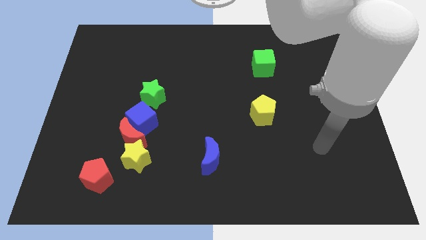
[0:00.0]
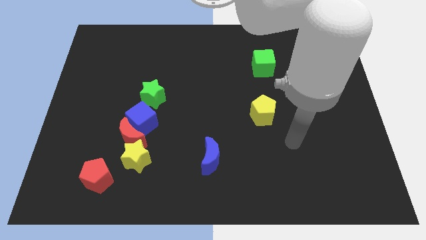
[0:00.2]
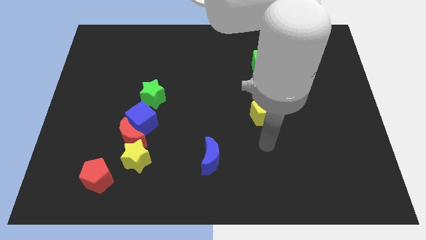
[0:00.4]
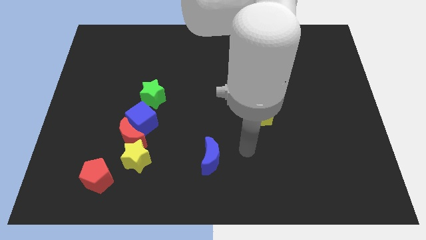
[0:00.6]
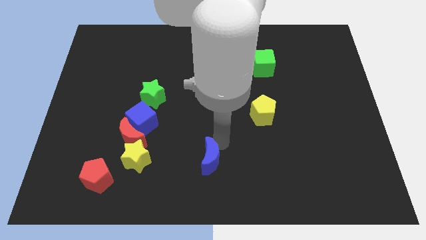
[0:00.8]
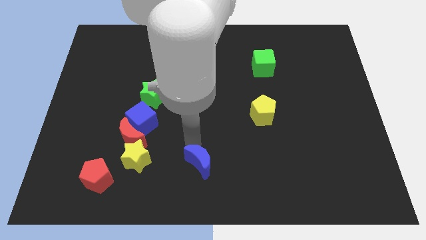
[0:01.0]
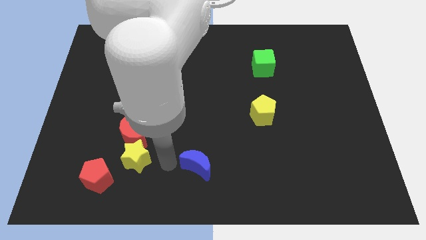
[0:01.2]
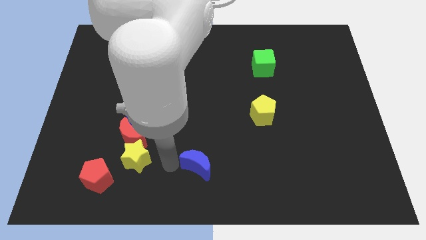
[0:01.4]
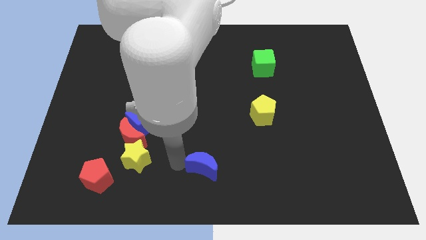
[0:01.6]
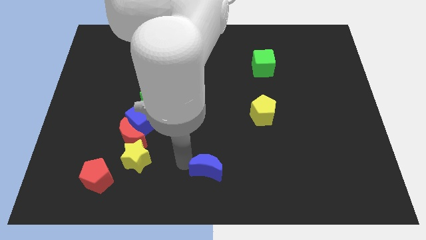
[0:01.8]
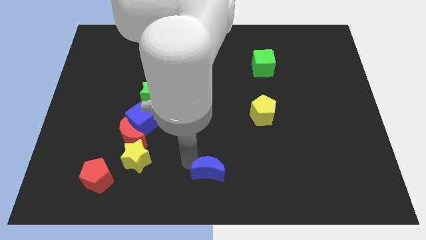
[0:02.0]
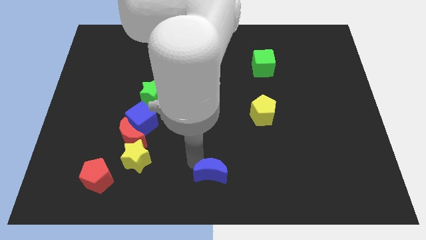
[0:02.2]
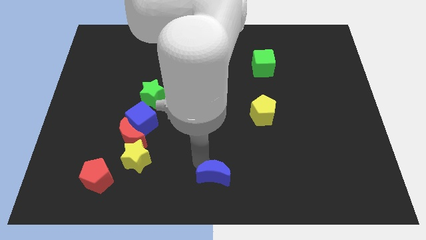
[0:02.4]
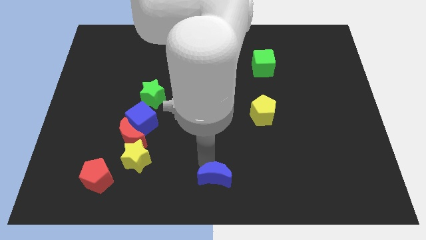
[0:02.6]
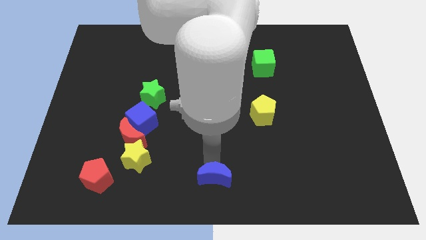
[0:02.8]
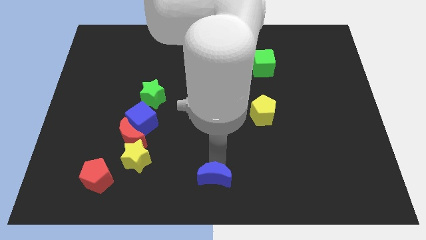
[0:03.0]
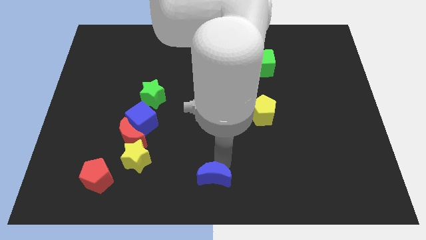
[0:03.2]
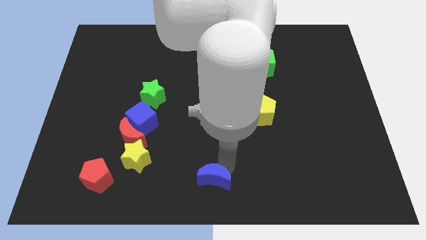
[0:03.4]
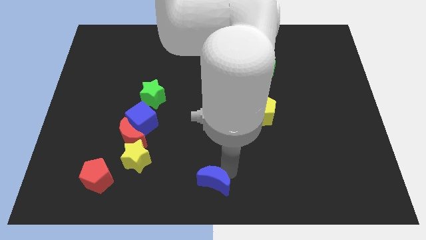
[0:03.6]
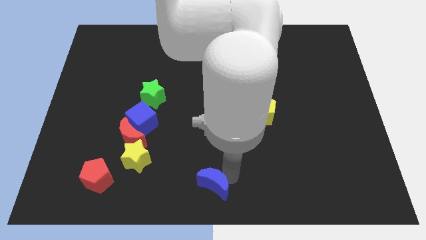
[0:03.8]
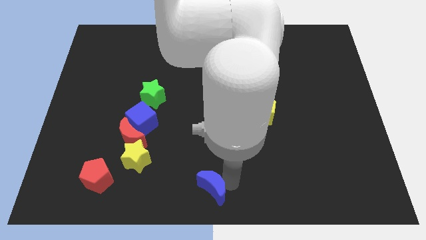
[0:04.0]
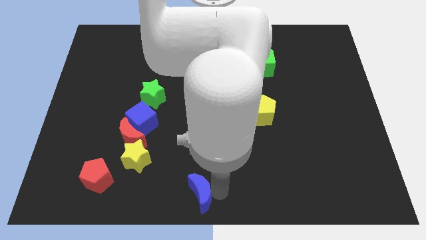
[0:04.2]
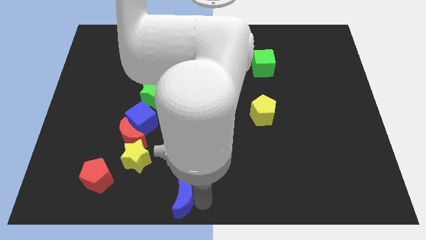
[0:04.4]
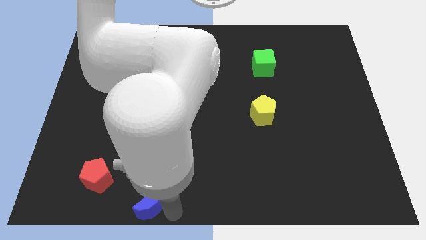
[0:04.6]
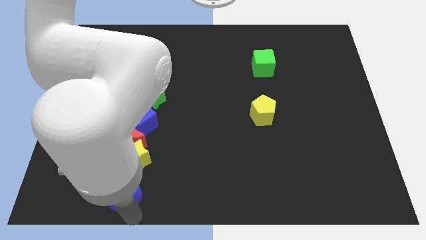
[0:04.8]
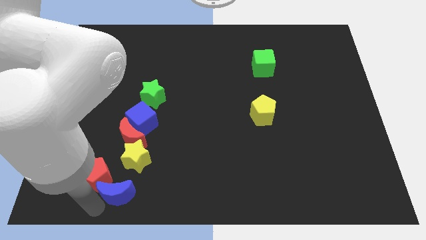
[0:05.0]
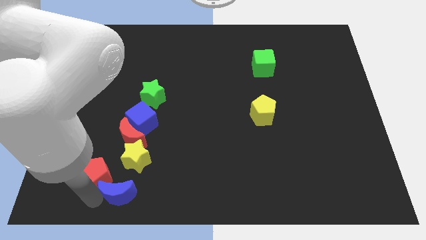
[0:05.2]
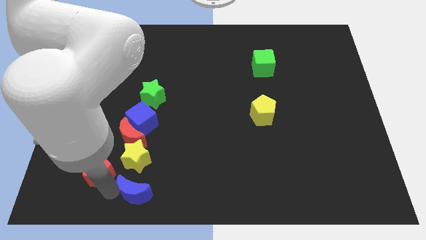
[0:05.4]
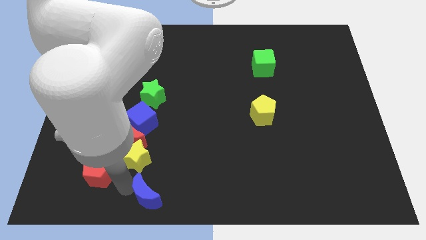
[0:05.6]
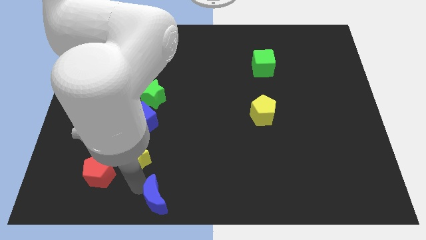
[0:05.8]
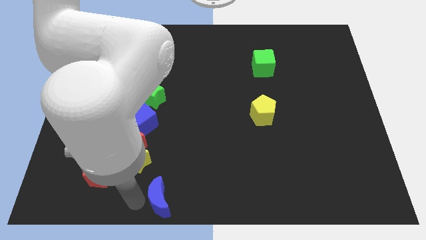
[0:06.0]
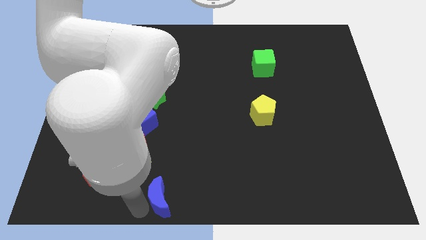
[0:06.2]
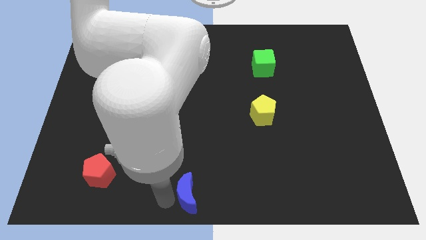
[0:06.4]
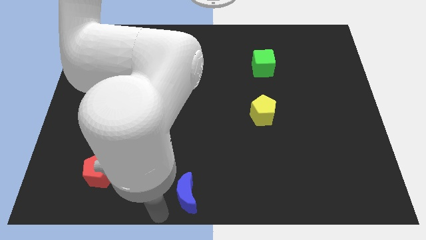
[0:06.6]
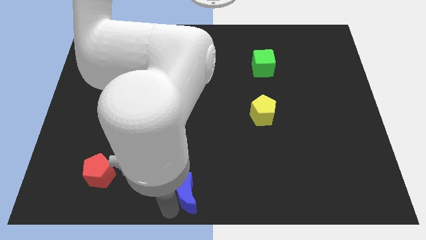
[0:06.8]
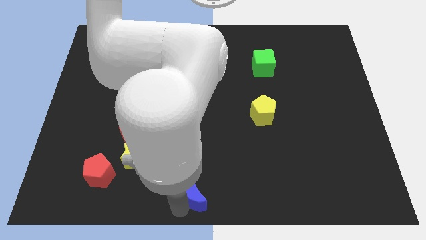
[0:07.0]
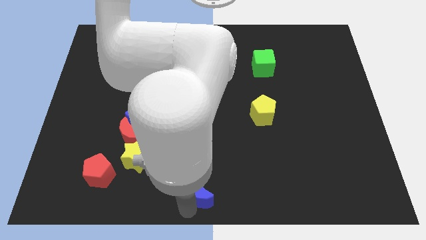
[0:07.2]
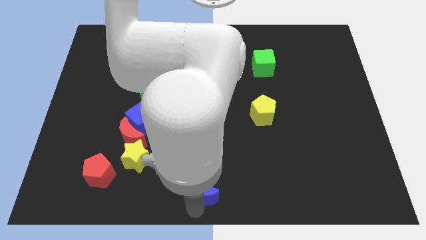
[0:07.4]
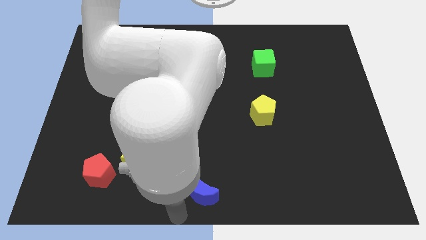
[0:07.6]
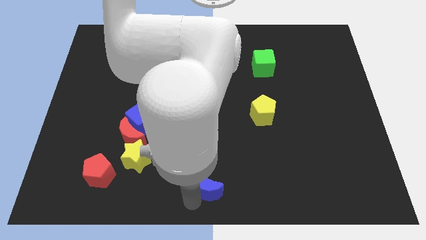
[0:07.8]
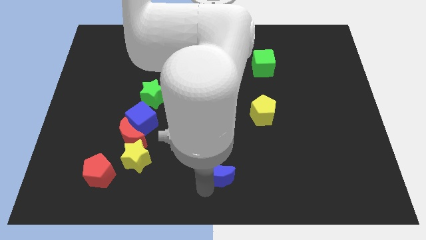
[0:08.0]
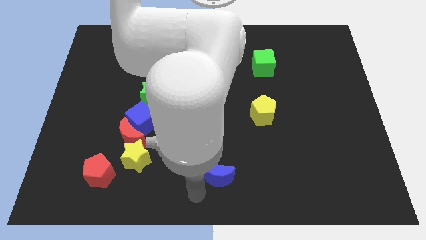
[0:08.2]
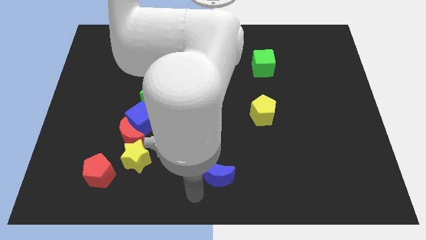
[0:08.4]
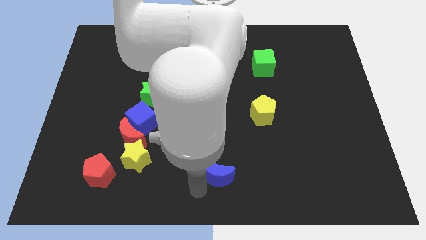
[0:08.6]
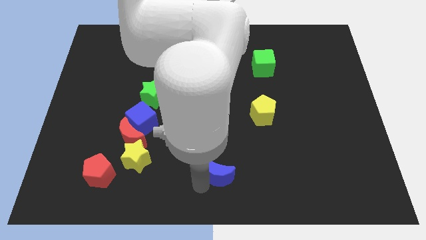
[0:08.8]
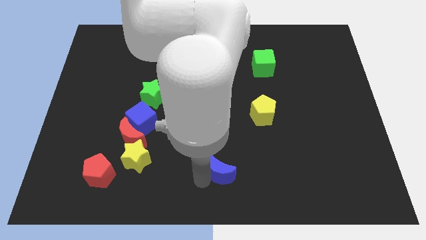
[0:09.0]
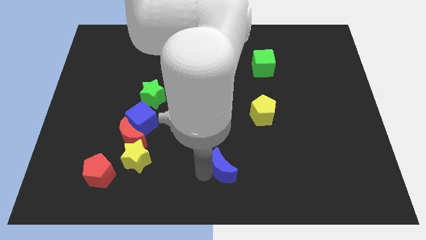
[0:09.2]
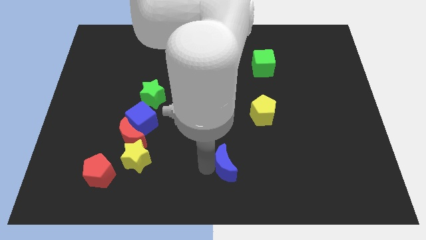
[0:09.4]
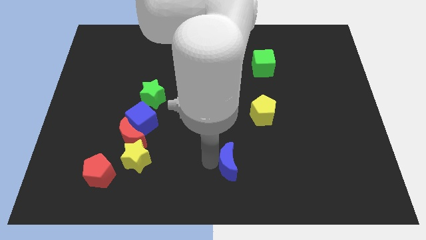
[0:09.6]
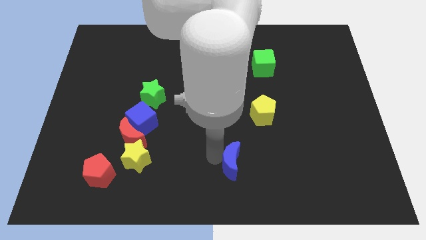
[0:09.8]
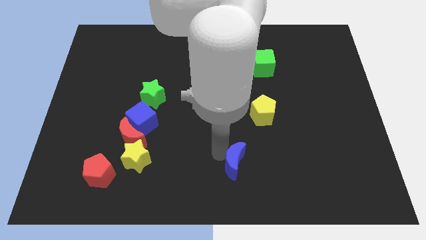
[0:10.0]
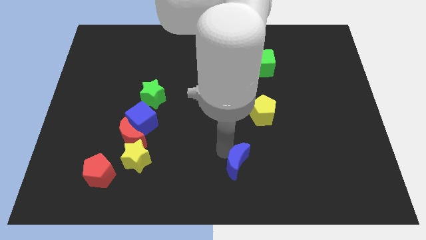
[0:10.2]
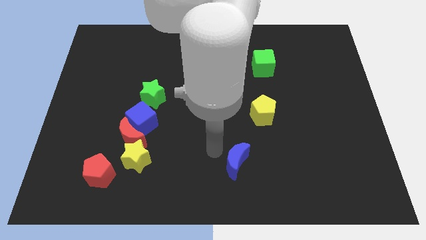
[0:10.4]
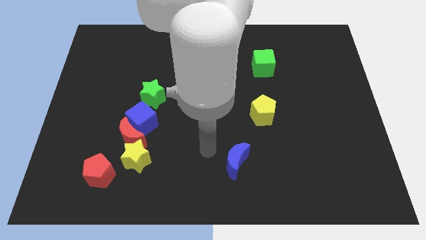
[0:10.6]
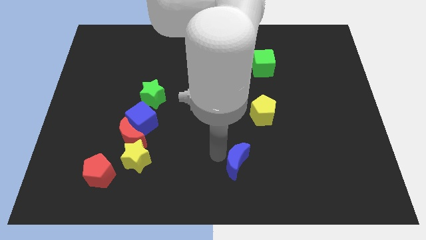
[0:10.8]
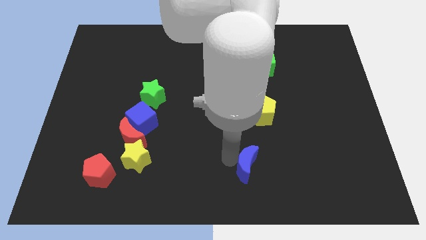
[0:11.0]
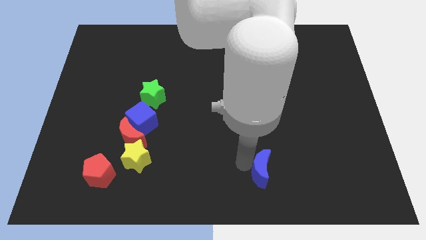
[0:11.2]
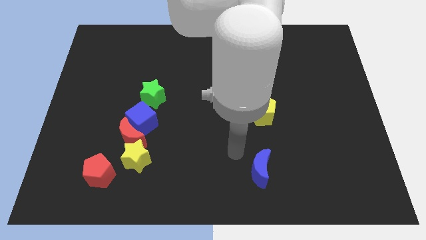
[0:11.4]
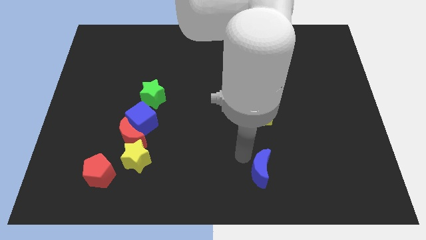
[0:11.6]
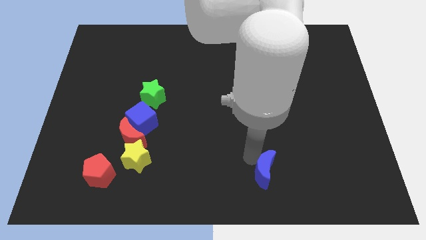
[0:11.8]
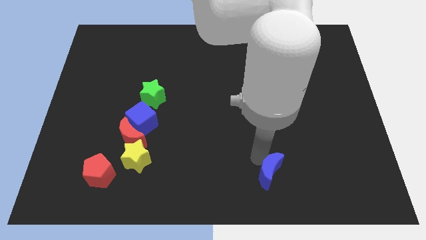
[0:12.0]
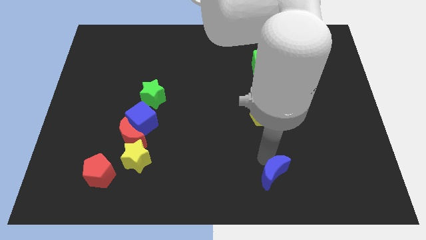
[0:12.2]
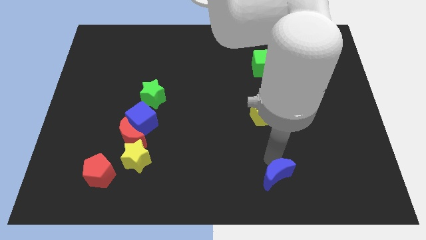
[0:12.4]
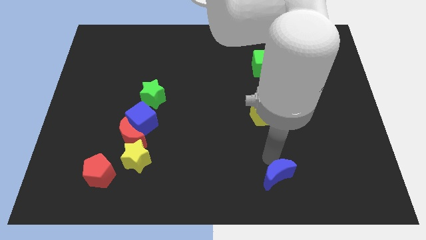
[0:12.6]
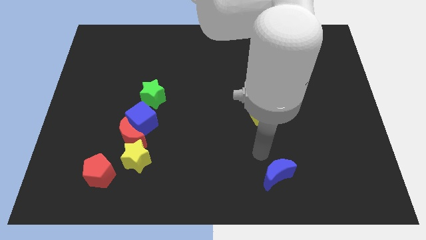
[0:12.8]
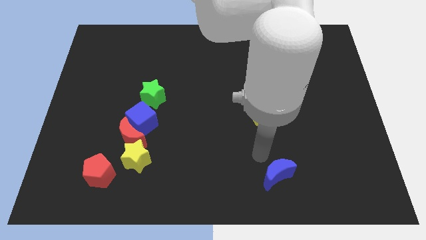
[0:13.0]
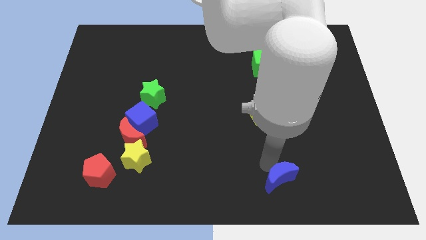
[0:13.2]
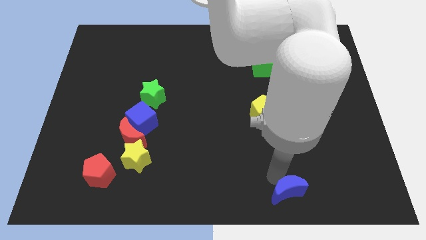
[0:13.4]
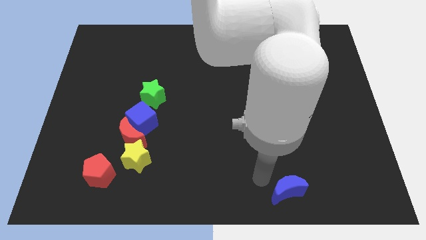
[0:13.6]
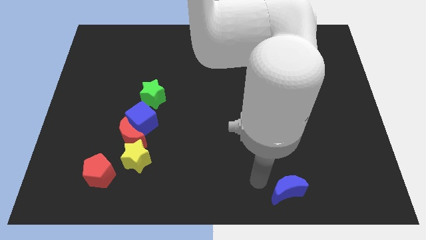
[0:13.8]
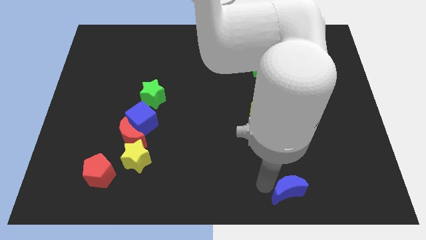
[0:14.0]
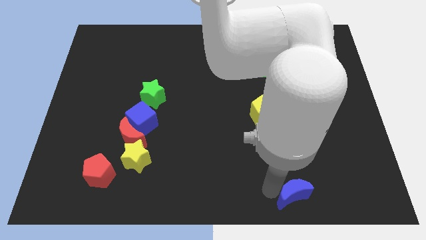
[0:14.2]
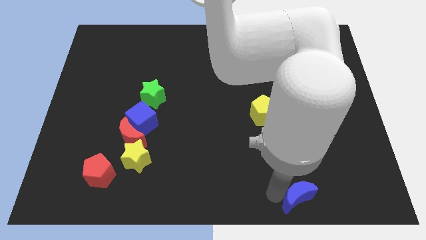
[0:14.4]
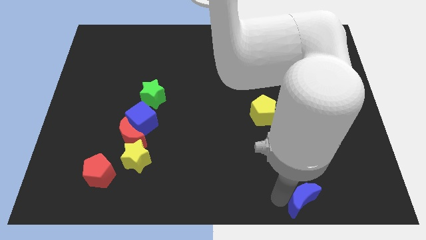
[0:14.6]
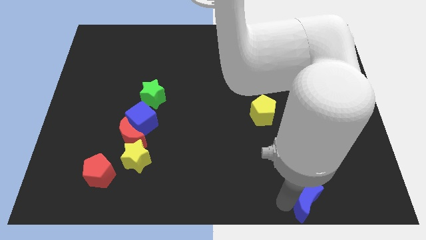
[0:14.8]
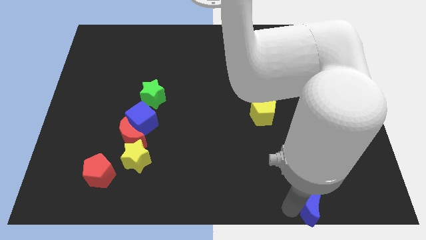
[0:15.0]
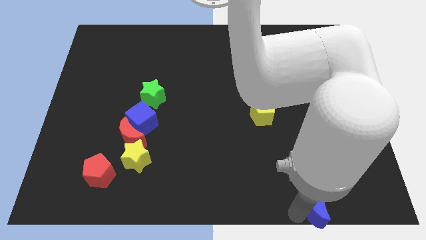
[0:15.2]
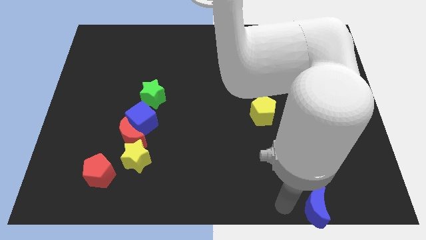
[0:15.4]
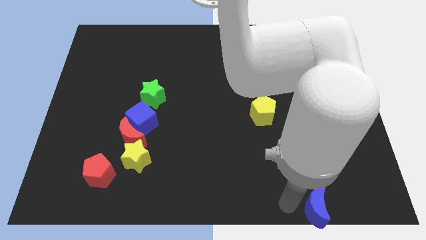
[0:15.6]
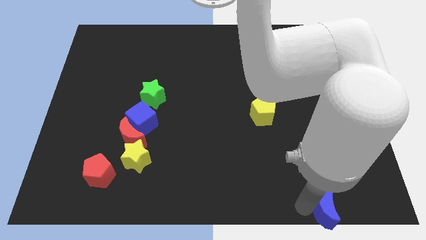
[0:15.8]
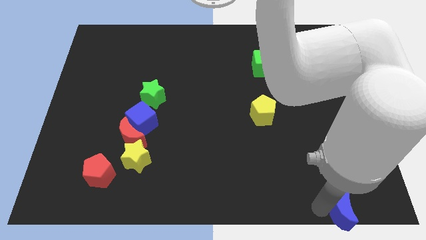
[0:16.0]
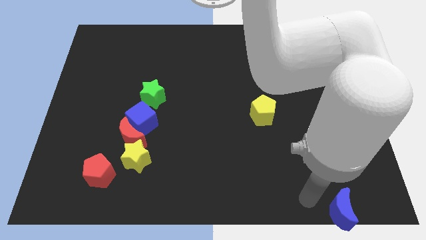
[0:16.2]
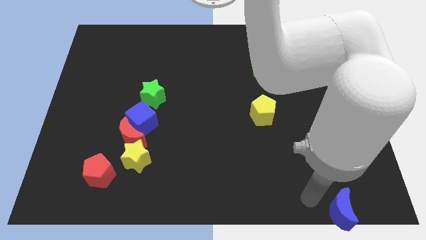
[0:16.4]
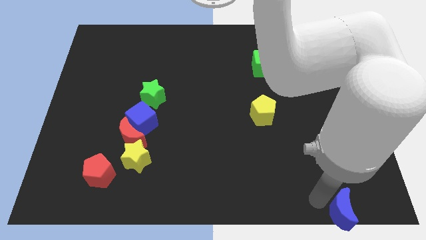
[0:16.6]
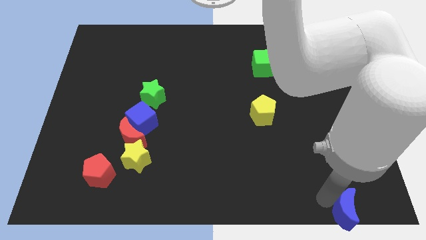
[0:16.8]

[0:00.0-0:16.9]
move the blue moon to the bottom right corner
